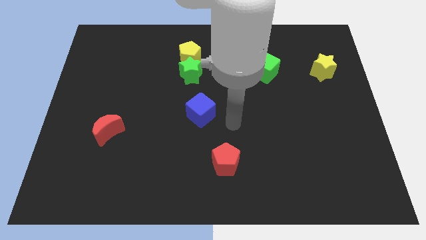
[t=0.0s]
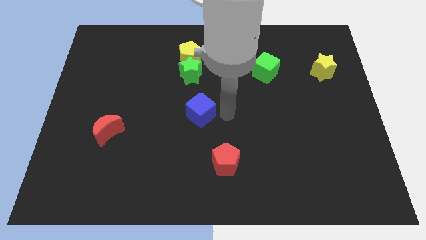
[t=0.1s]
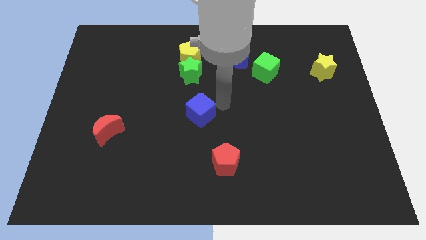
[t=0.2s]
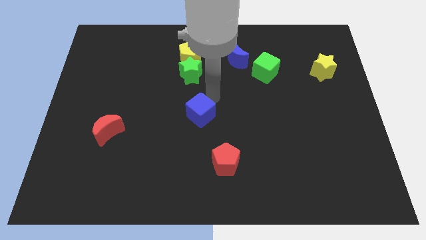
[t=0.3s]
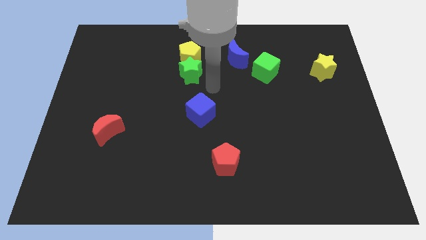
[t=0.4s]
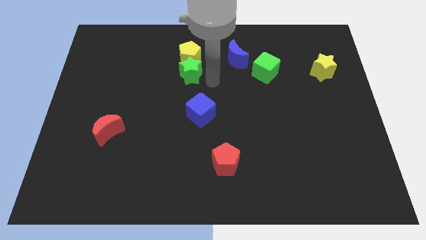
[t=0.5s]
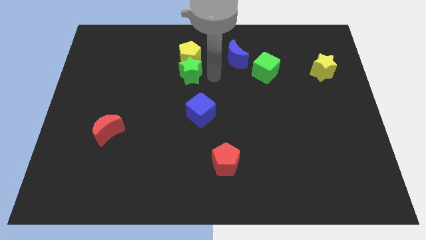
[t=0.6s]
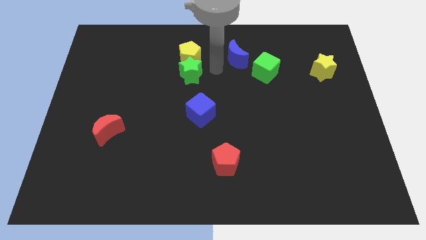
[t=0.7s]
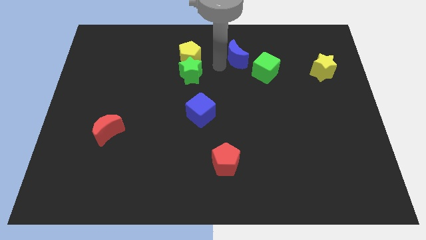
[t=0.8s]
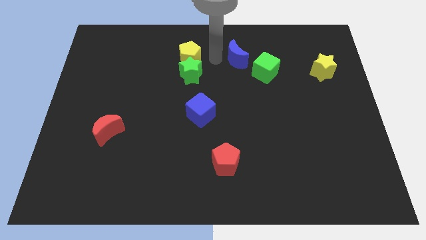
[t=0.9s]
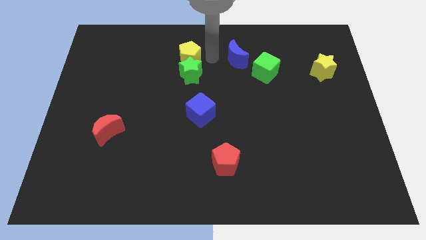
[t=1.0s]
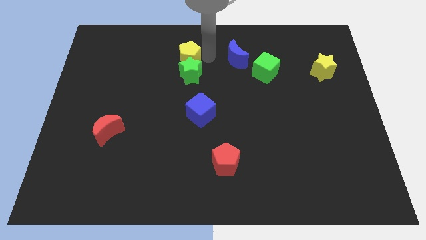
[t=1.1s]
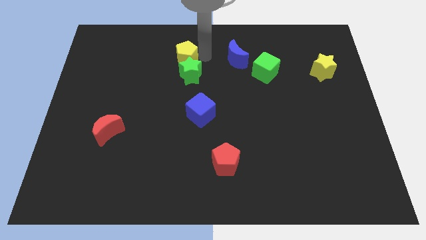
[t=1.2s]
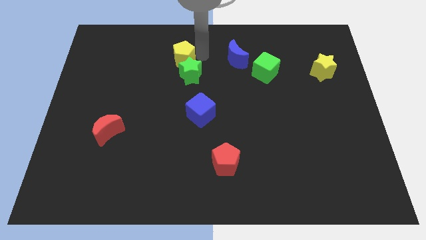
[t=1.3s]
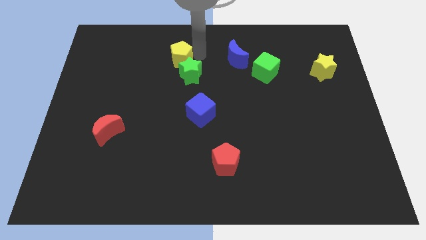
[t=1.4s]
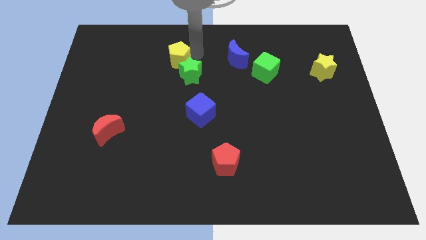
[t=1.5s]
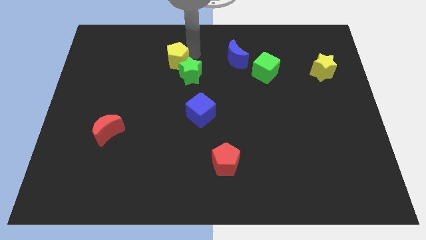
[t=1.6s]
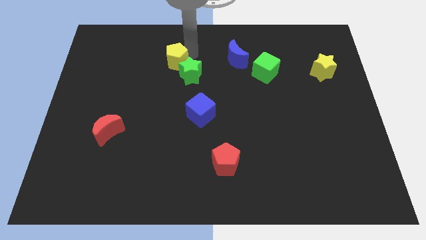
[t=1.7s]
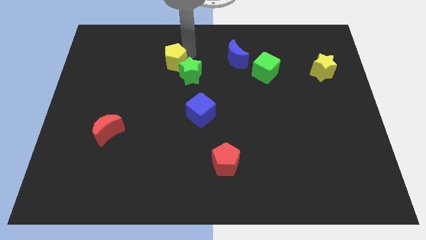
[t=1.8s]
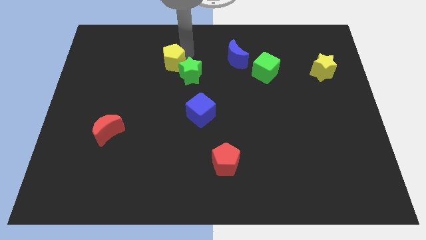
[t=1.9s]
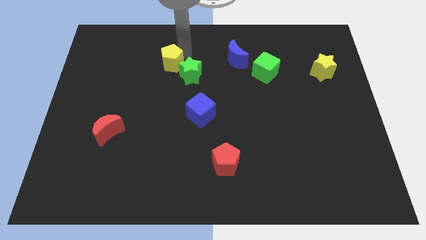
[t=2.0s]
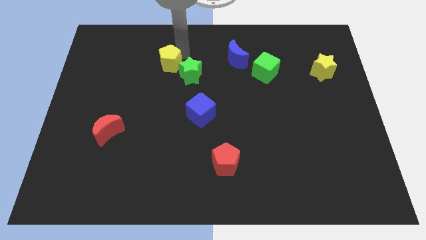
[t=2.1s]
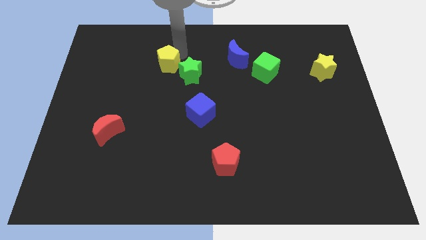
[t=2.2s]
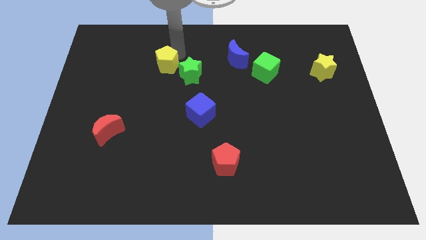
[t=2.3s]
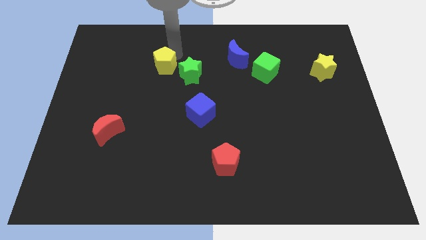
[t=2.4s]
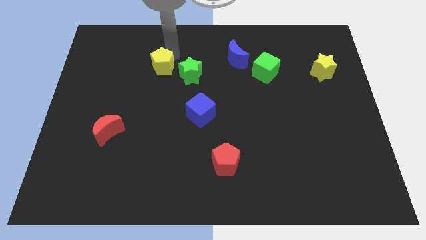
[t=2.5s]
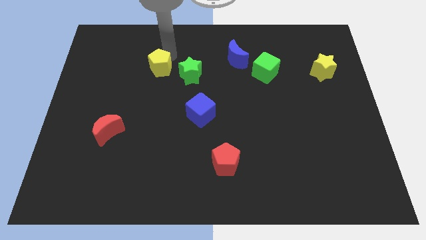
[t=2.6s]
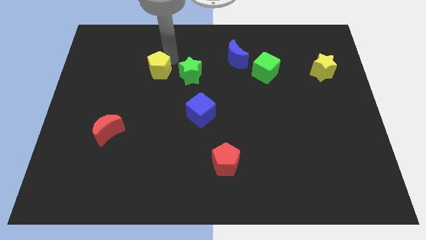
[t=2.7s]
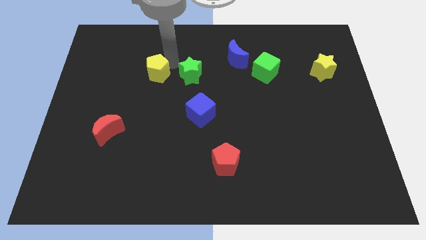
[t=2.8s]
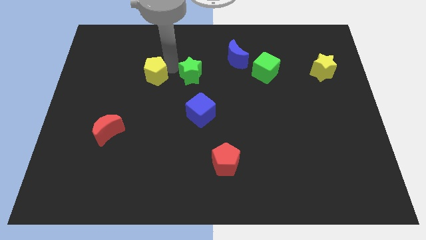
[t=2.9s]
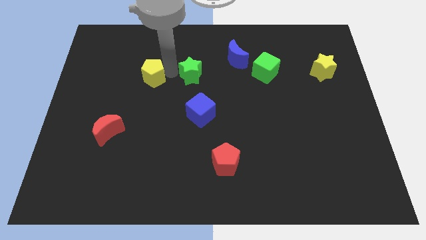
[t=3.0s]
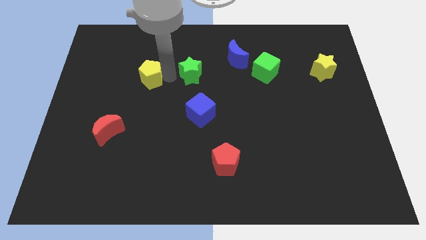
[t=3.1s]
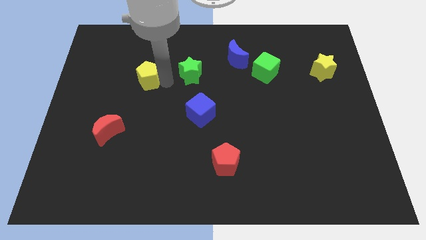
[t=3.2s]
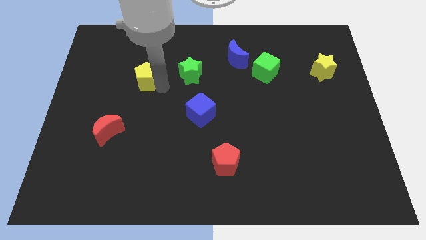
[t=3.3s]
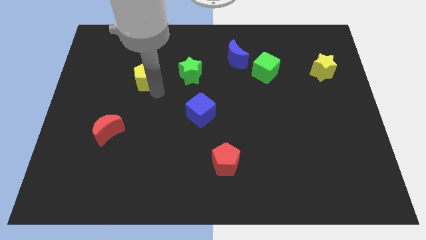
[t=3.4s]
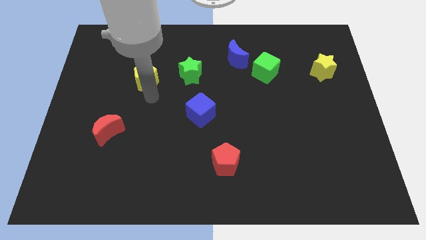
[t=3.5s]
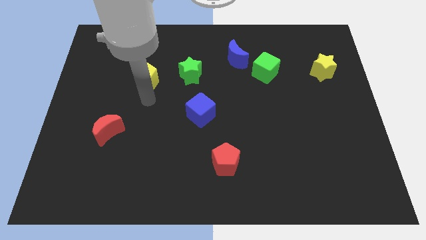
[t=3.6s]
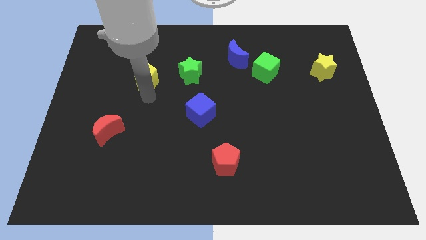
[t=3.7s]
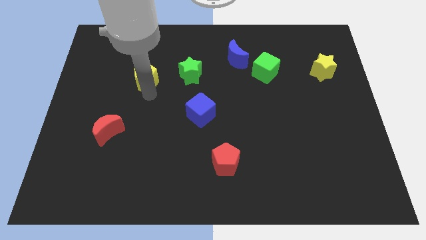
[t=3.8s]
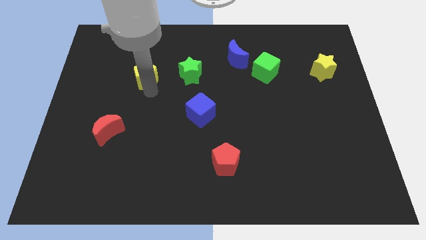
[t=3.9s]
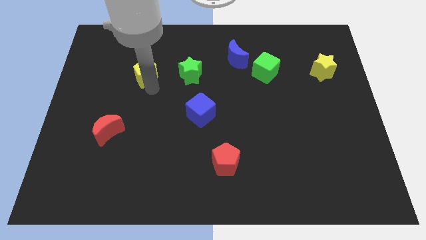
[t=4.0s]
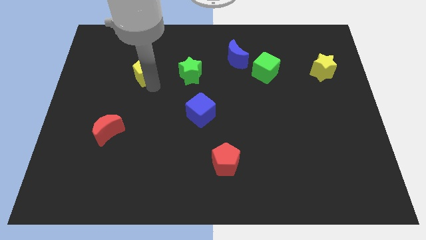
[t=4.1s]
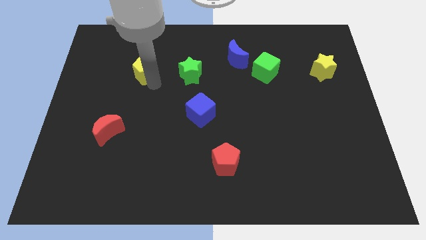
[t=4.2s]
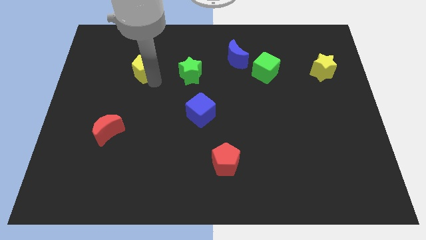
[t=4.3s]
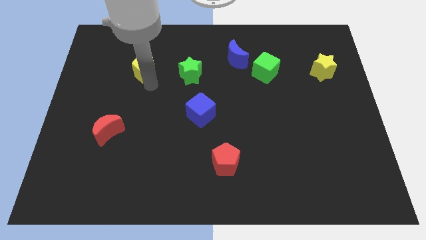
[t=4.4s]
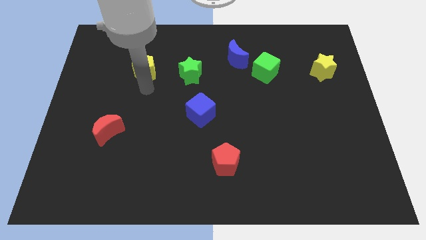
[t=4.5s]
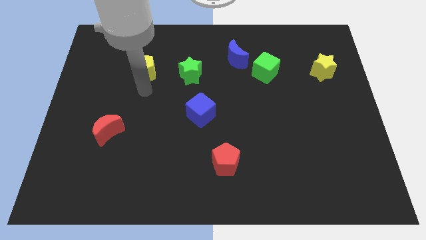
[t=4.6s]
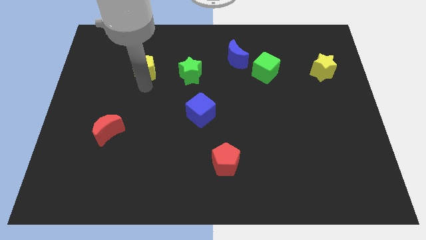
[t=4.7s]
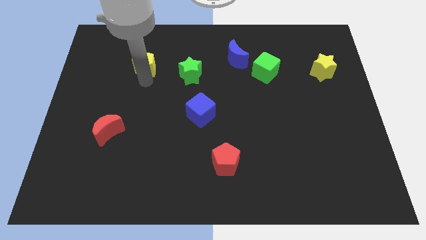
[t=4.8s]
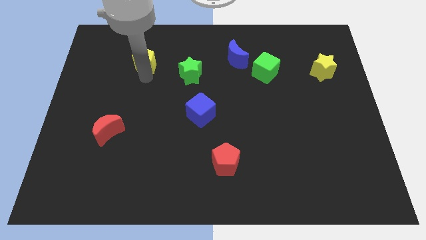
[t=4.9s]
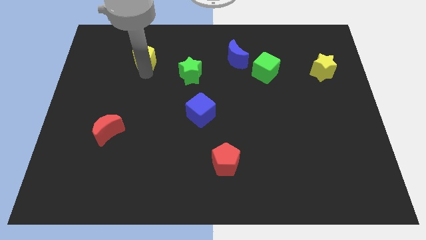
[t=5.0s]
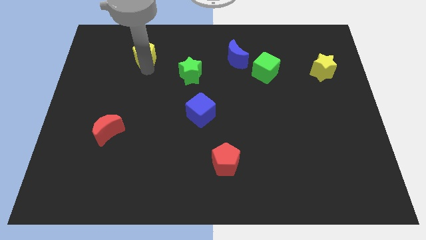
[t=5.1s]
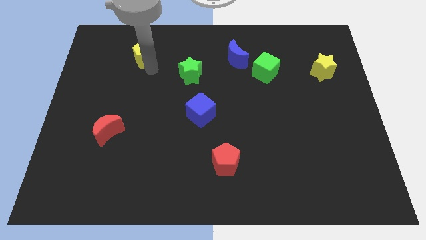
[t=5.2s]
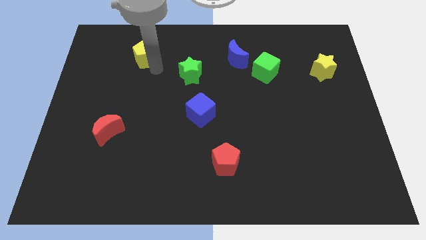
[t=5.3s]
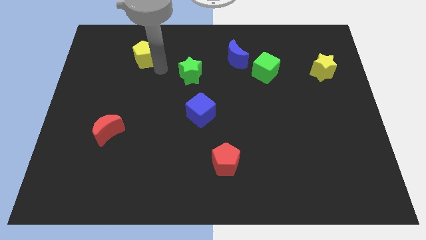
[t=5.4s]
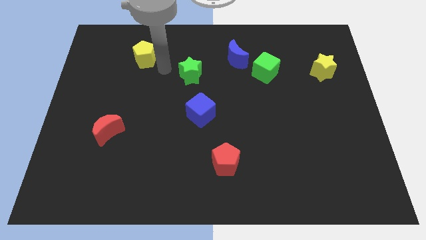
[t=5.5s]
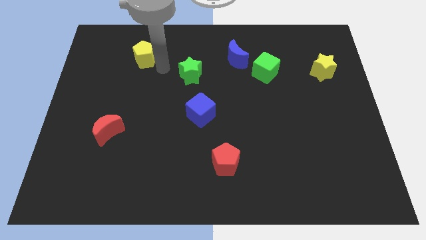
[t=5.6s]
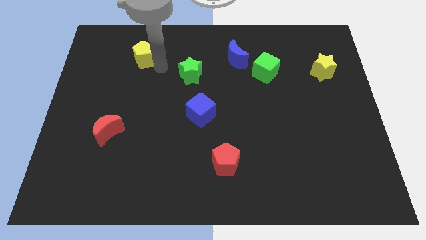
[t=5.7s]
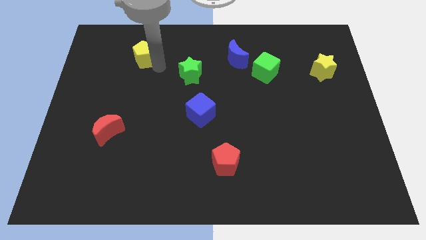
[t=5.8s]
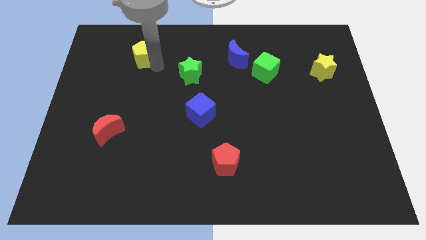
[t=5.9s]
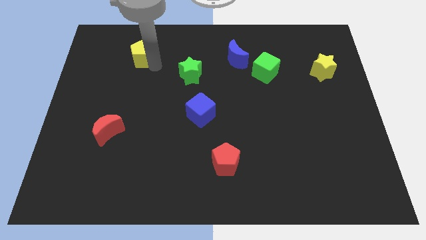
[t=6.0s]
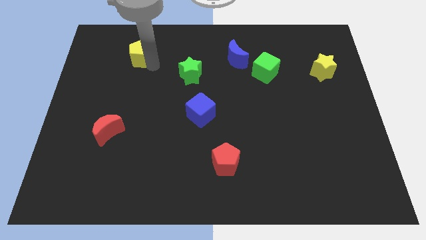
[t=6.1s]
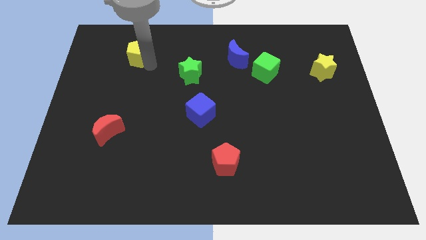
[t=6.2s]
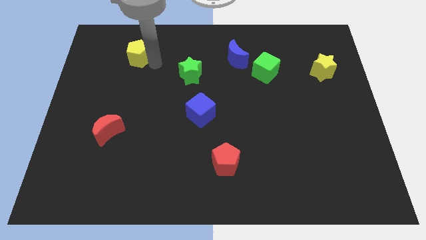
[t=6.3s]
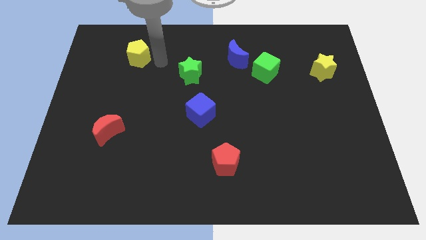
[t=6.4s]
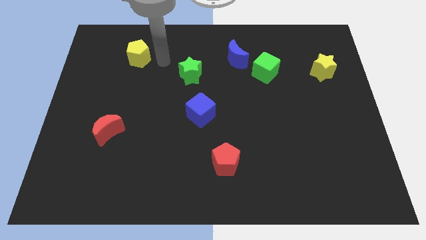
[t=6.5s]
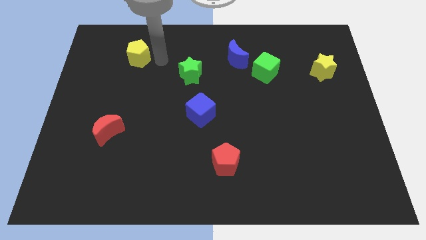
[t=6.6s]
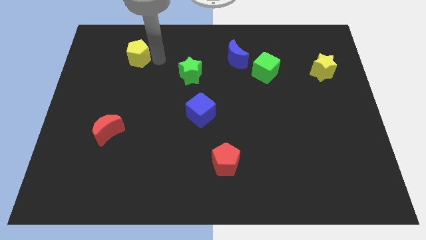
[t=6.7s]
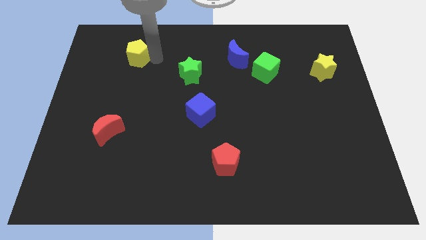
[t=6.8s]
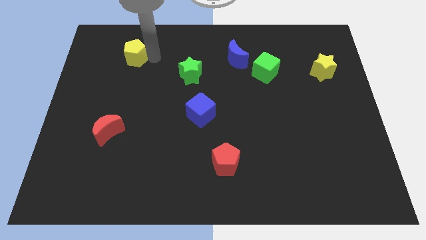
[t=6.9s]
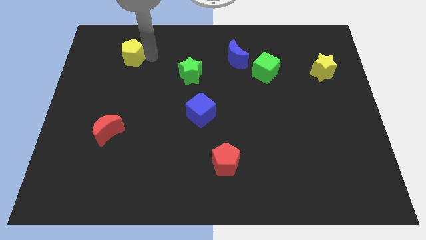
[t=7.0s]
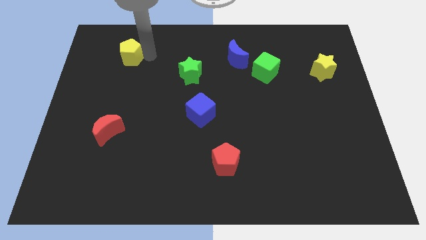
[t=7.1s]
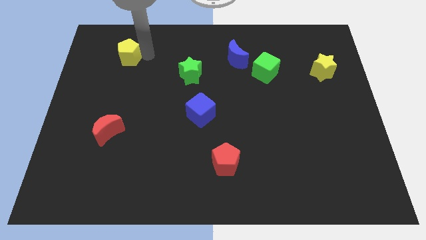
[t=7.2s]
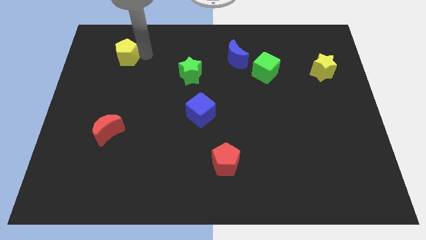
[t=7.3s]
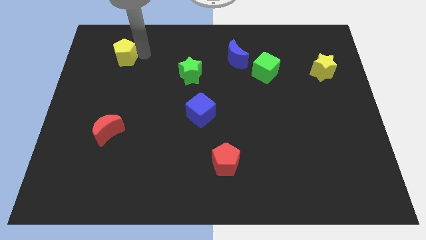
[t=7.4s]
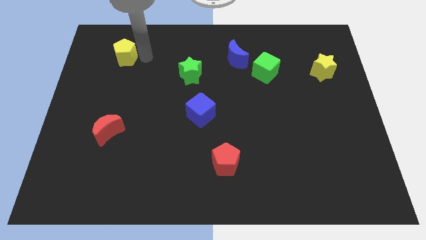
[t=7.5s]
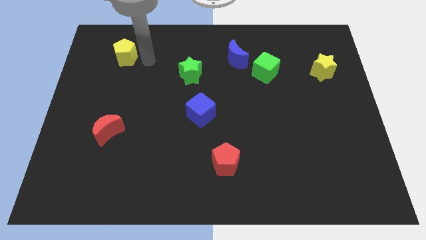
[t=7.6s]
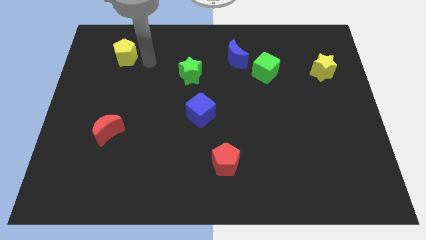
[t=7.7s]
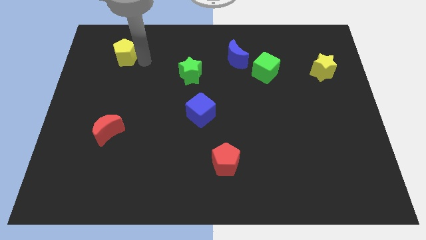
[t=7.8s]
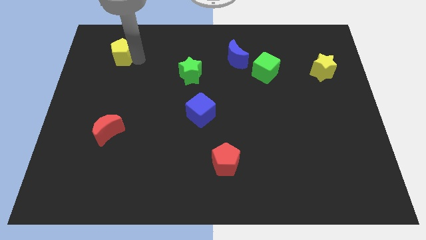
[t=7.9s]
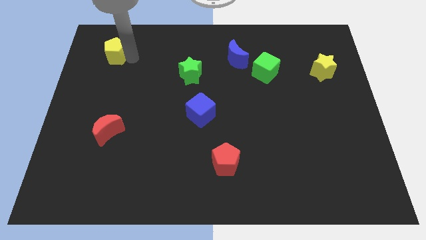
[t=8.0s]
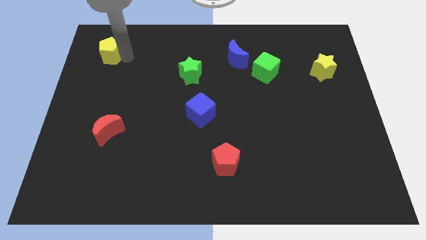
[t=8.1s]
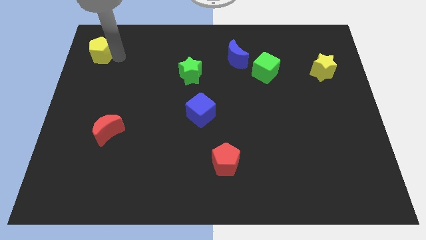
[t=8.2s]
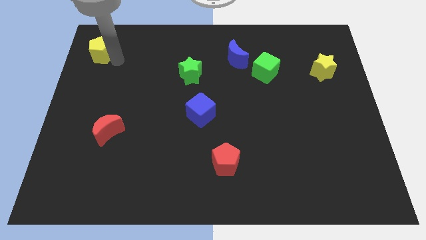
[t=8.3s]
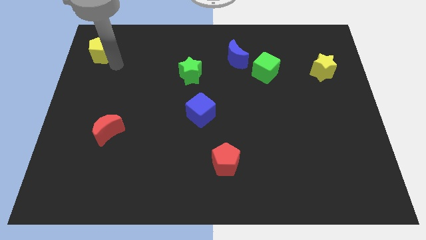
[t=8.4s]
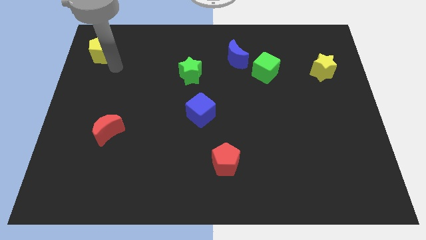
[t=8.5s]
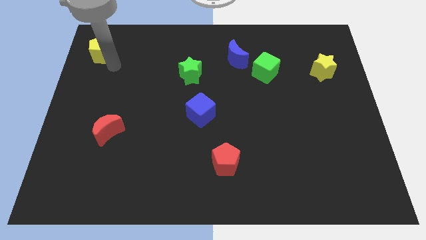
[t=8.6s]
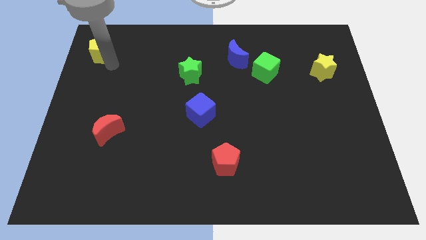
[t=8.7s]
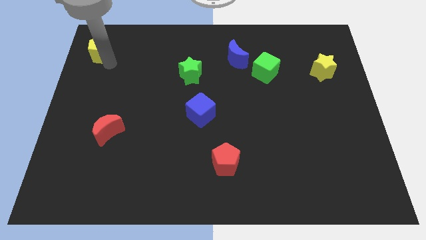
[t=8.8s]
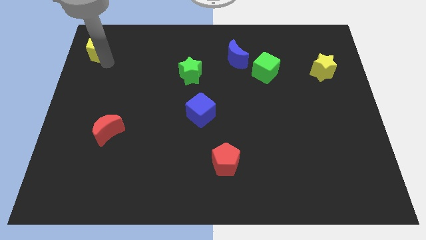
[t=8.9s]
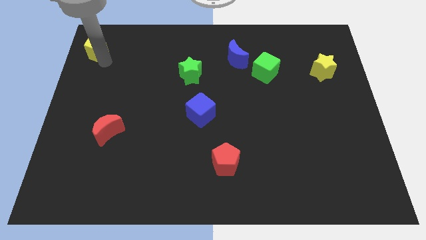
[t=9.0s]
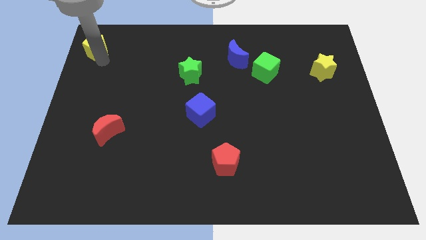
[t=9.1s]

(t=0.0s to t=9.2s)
slide the yellow pentagon to the top left of the board
